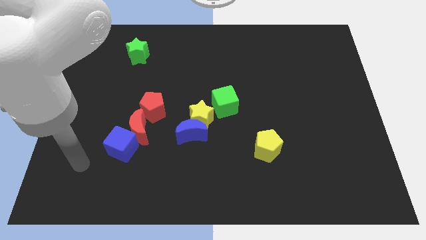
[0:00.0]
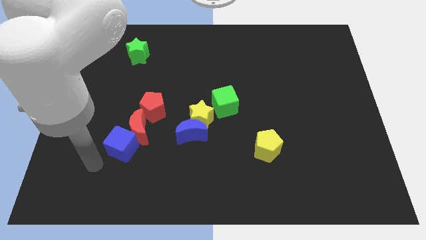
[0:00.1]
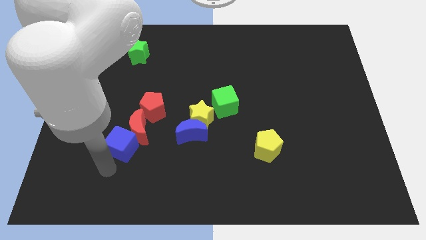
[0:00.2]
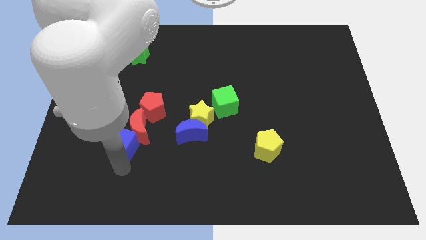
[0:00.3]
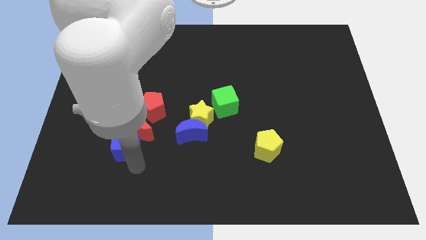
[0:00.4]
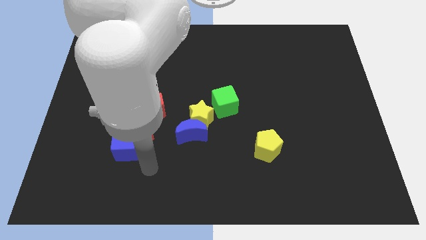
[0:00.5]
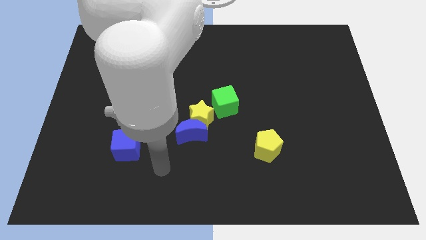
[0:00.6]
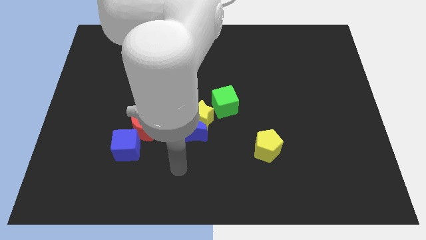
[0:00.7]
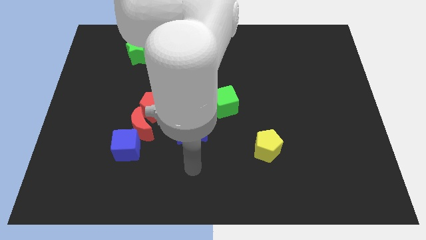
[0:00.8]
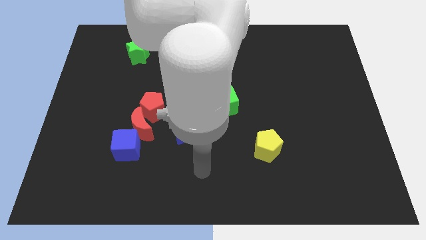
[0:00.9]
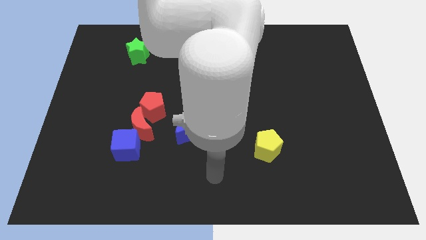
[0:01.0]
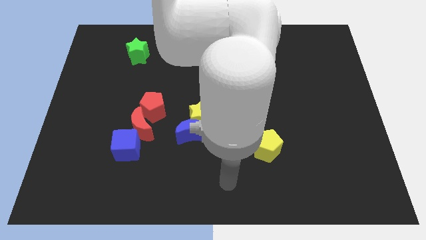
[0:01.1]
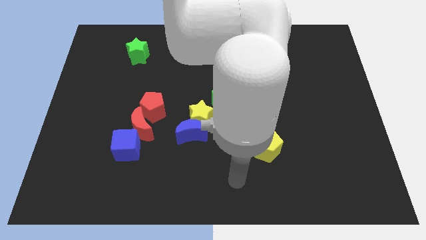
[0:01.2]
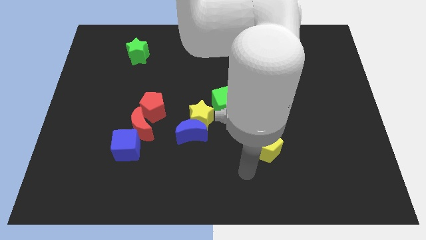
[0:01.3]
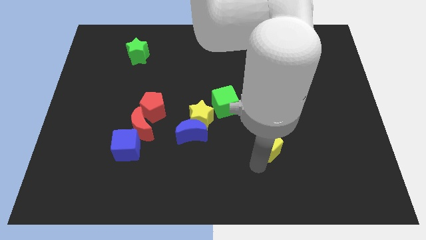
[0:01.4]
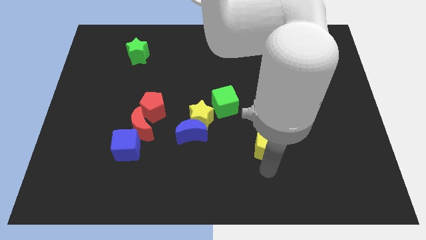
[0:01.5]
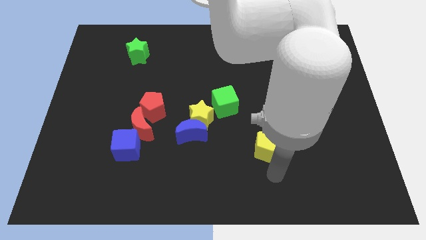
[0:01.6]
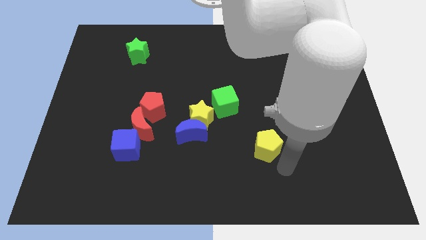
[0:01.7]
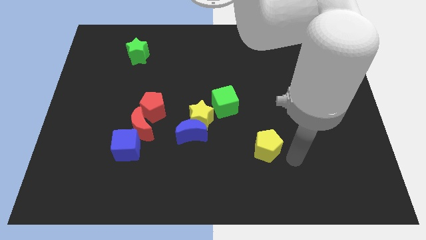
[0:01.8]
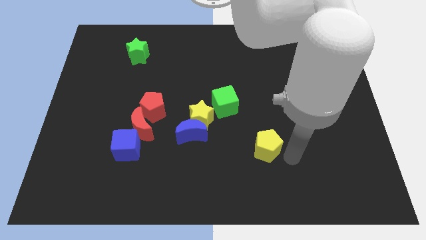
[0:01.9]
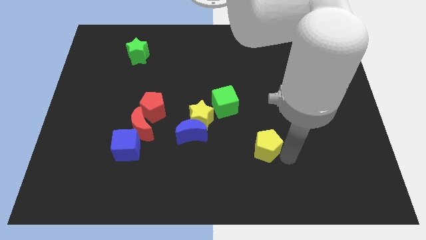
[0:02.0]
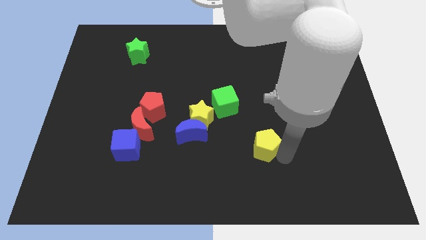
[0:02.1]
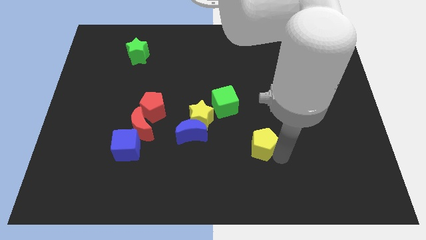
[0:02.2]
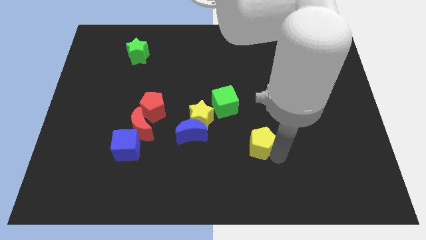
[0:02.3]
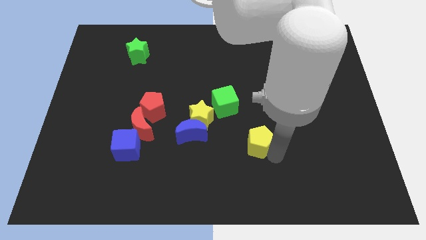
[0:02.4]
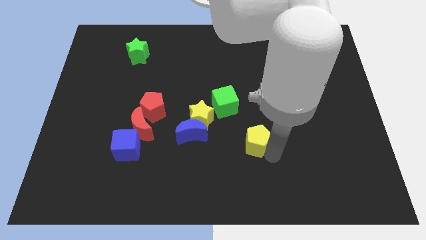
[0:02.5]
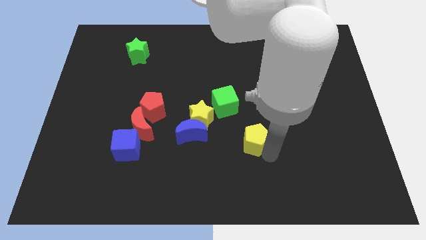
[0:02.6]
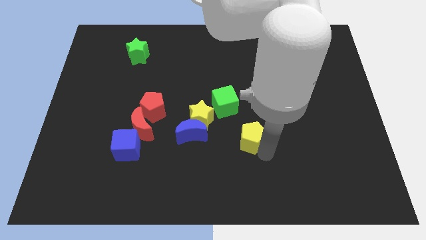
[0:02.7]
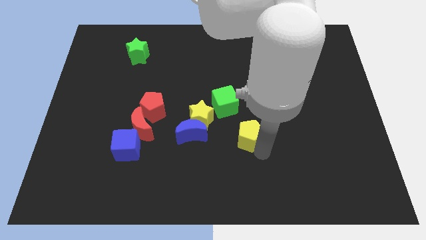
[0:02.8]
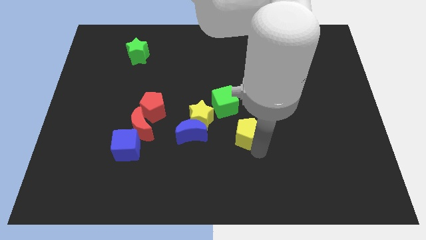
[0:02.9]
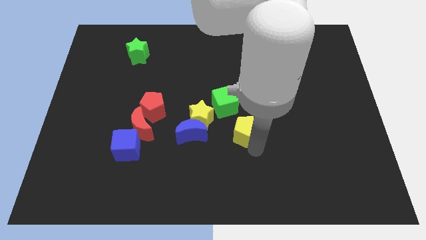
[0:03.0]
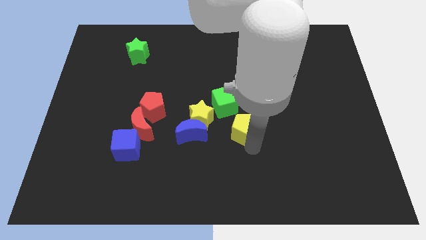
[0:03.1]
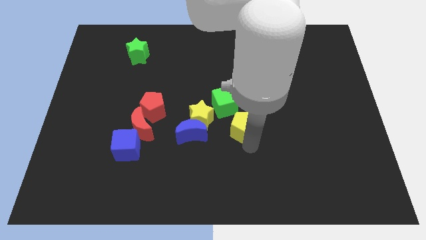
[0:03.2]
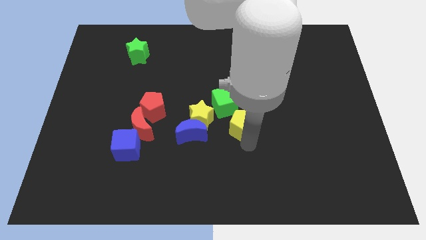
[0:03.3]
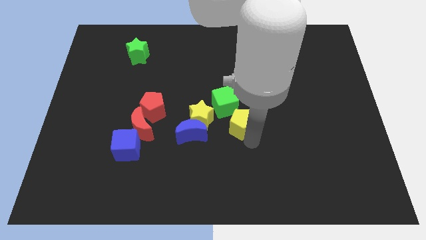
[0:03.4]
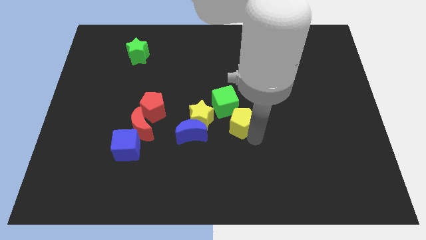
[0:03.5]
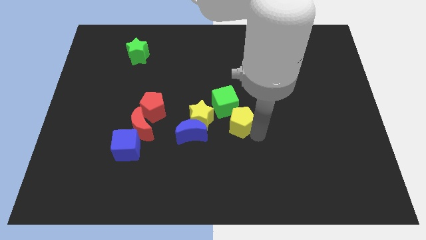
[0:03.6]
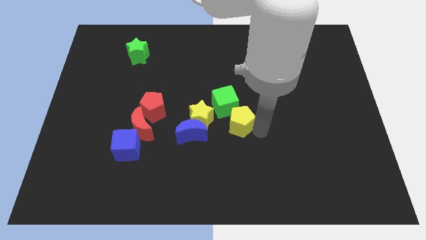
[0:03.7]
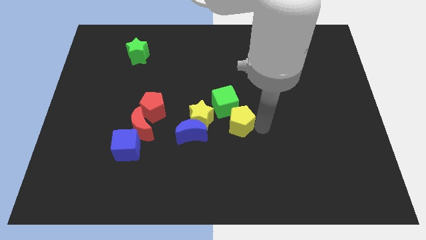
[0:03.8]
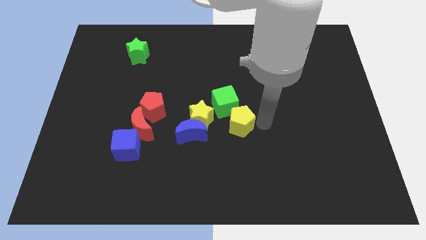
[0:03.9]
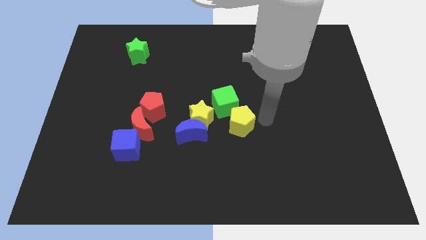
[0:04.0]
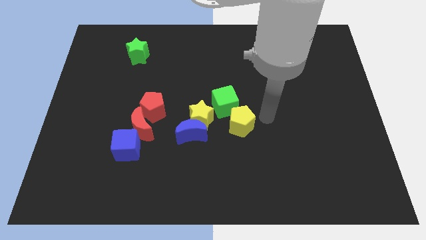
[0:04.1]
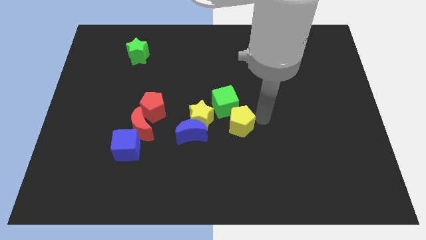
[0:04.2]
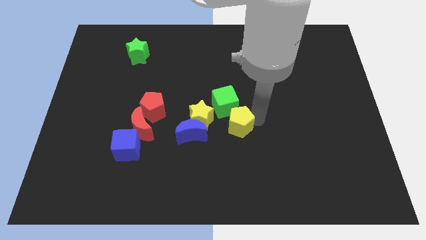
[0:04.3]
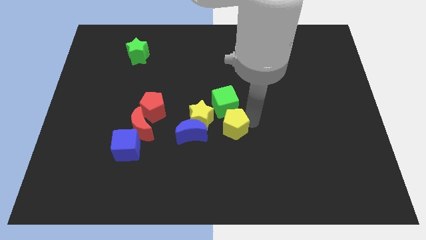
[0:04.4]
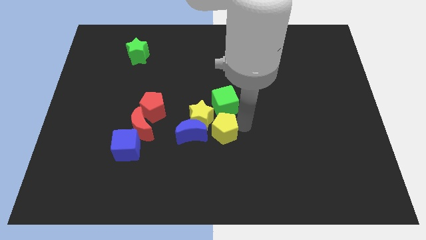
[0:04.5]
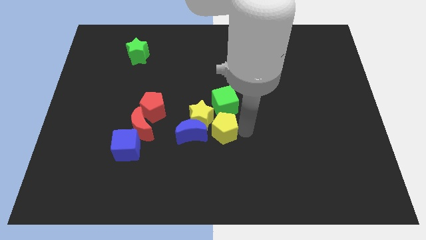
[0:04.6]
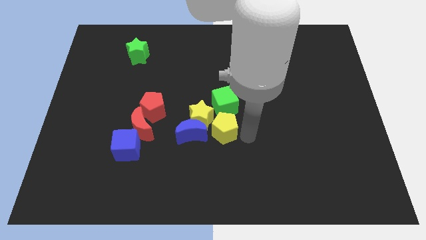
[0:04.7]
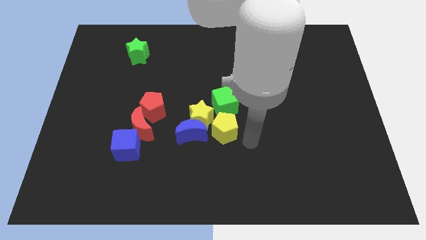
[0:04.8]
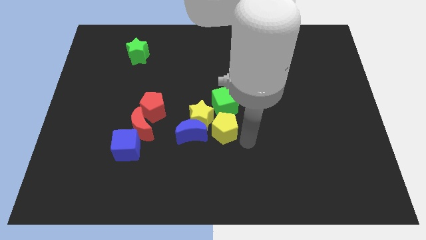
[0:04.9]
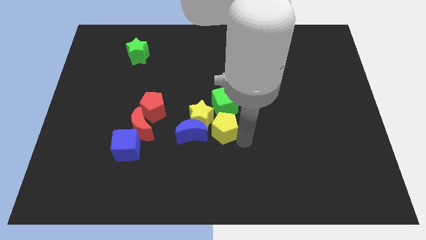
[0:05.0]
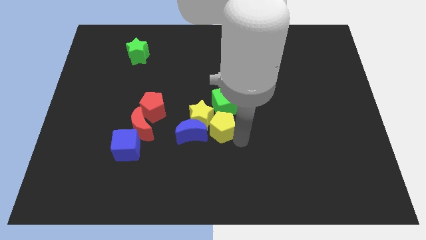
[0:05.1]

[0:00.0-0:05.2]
slide the yellow pentagon close to the yellow star

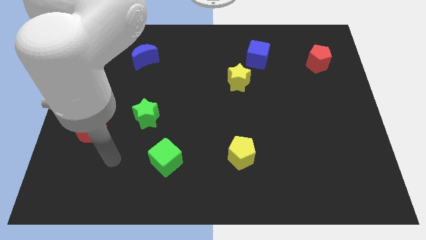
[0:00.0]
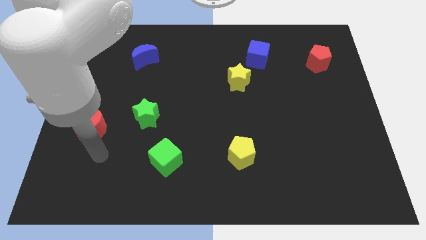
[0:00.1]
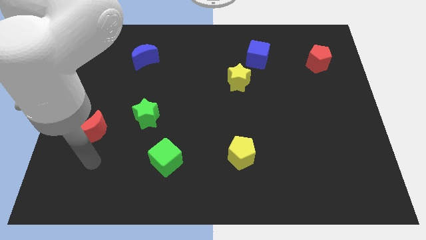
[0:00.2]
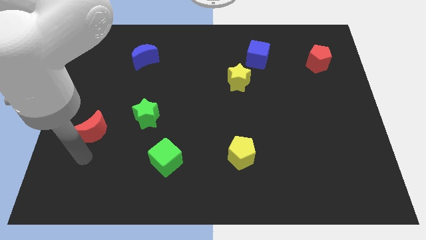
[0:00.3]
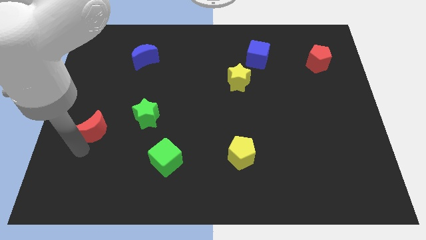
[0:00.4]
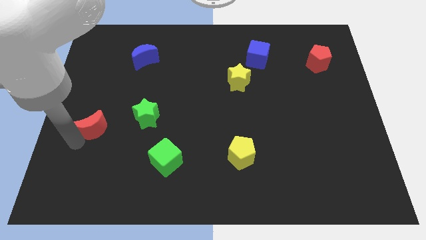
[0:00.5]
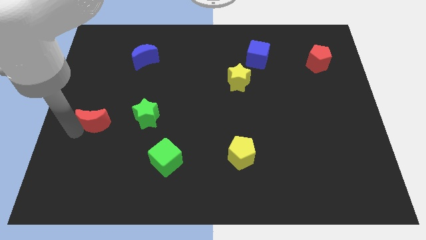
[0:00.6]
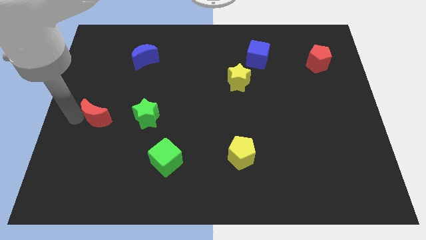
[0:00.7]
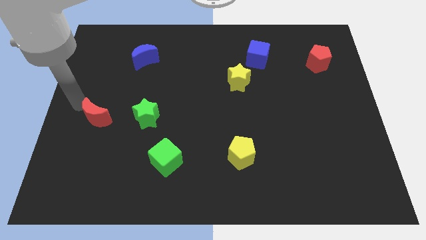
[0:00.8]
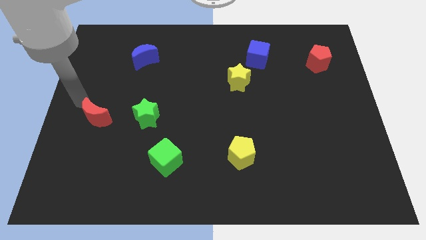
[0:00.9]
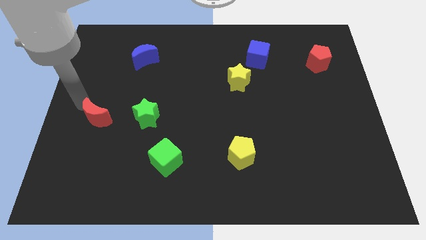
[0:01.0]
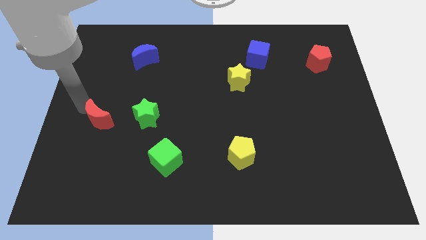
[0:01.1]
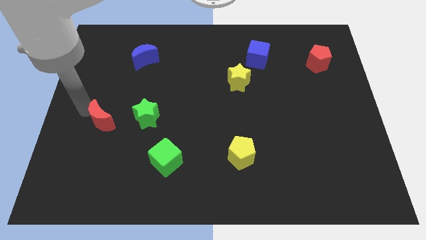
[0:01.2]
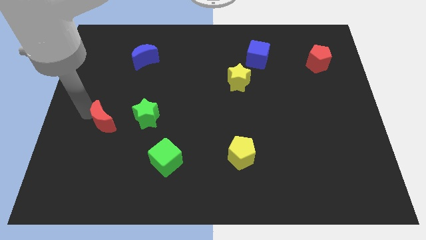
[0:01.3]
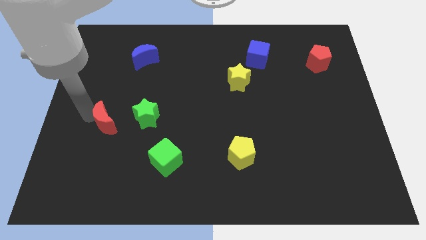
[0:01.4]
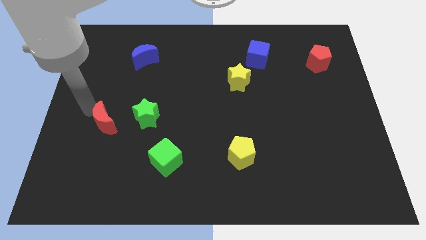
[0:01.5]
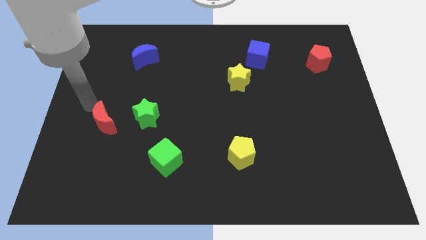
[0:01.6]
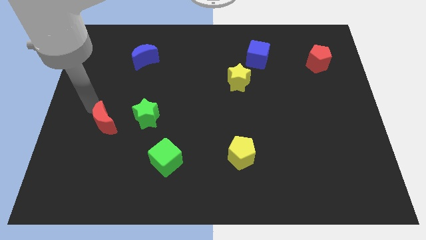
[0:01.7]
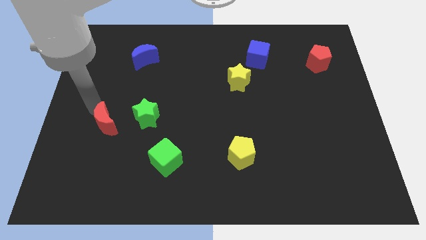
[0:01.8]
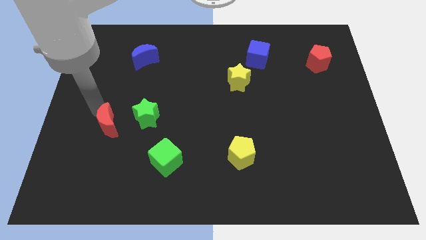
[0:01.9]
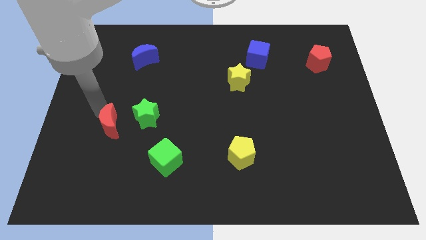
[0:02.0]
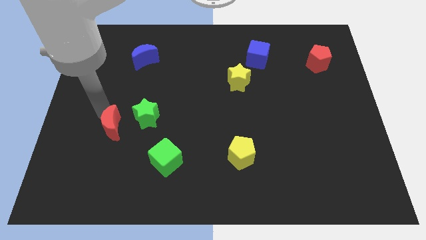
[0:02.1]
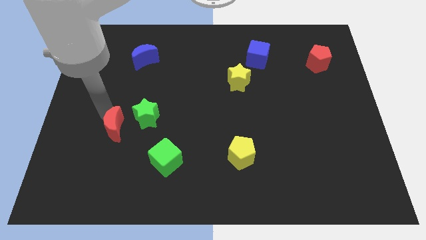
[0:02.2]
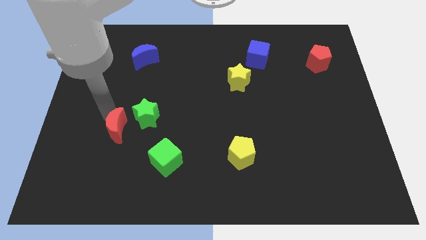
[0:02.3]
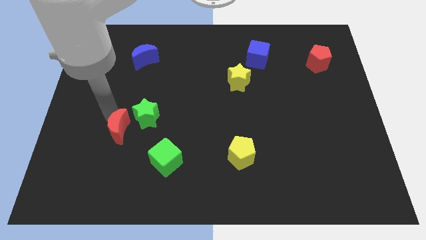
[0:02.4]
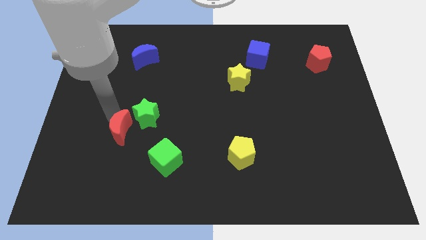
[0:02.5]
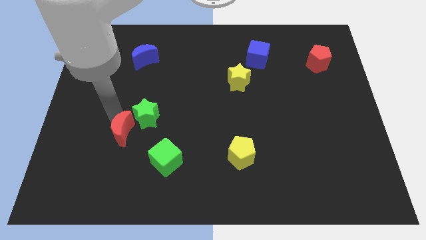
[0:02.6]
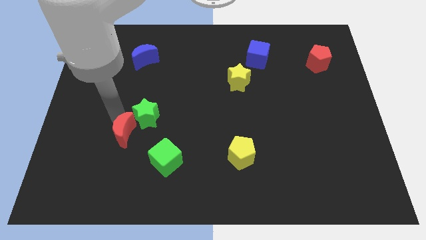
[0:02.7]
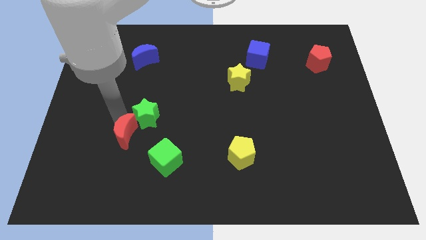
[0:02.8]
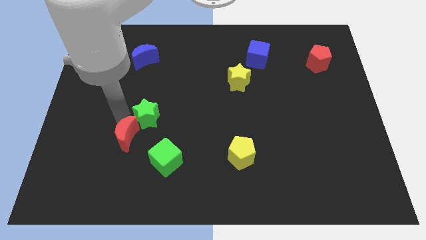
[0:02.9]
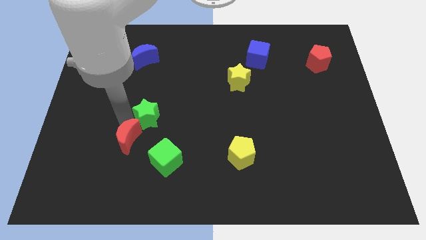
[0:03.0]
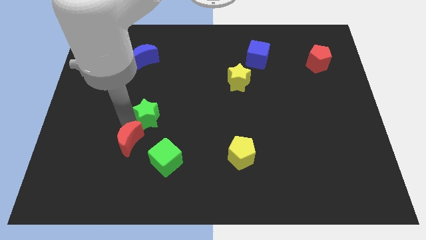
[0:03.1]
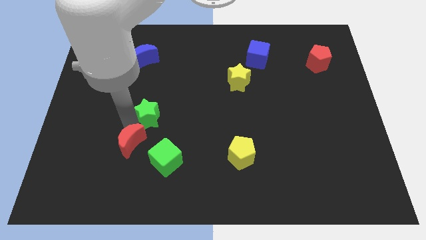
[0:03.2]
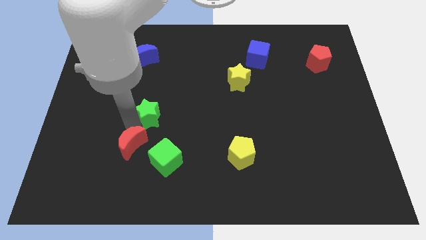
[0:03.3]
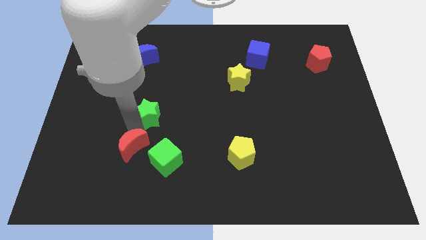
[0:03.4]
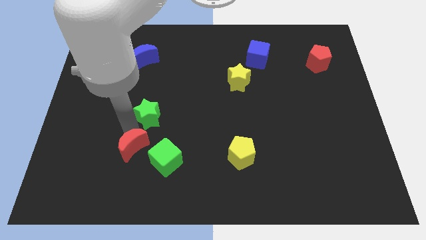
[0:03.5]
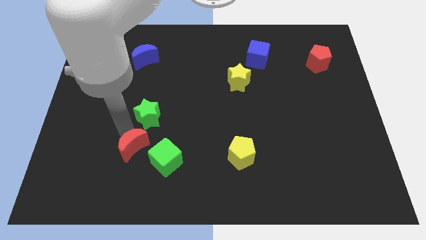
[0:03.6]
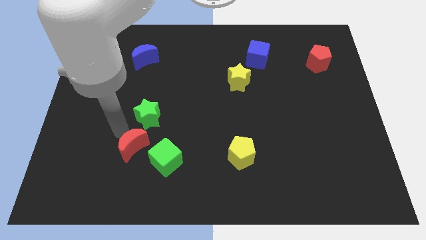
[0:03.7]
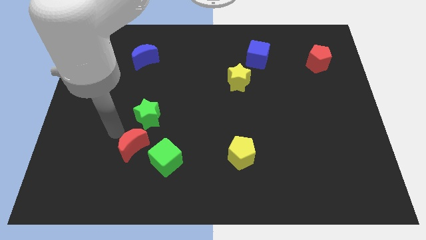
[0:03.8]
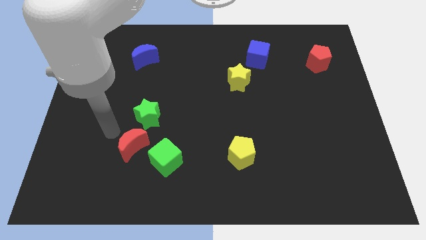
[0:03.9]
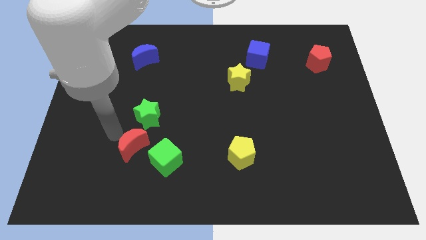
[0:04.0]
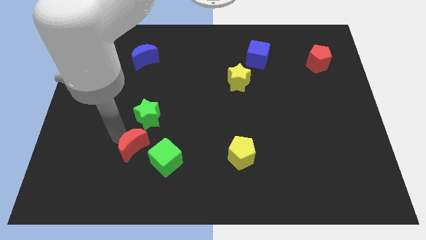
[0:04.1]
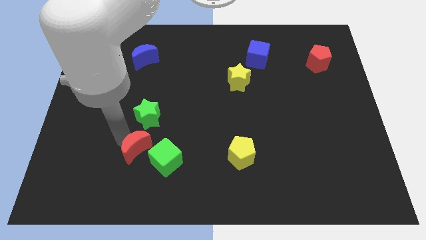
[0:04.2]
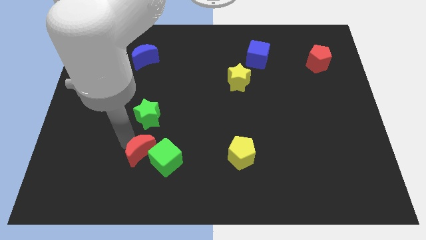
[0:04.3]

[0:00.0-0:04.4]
move the red moon close to the green cube
